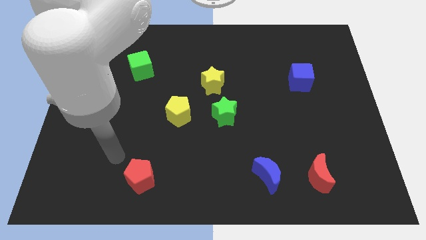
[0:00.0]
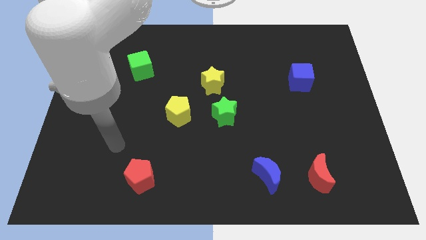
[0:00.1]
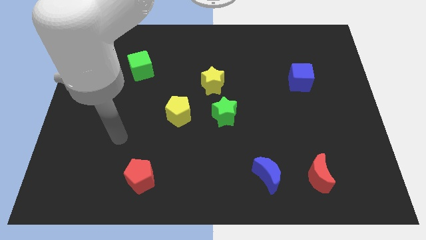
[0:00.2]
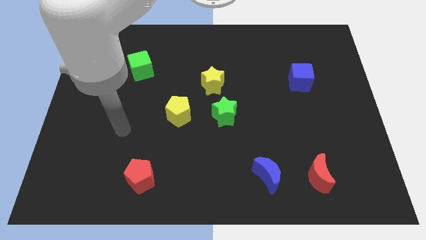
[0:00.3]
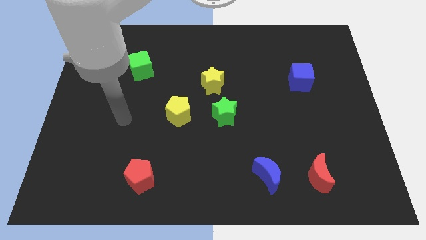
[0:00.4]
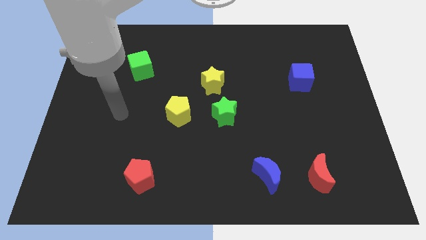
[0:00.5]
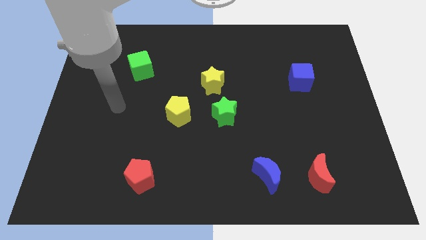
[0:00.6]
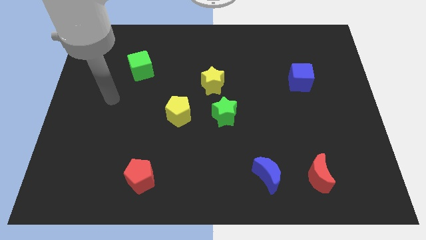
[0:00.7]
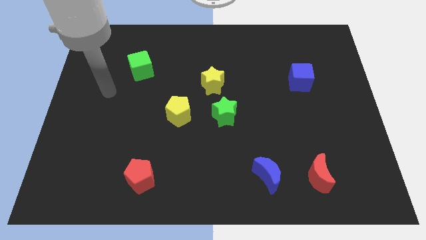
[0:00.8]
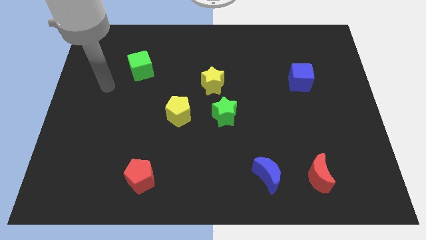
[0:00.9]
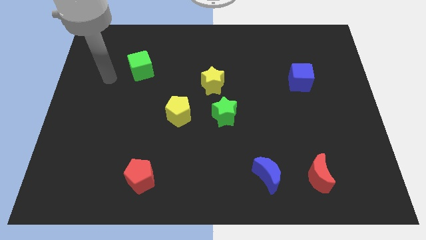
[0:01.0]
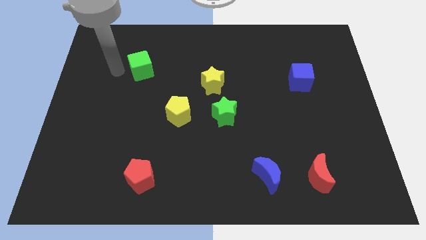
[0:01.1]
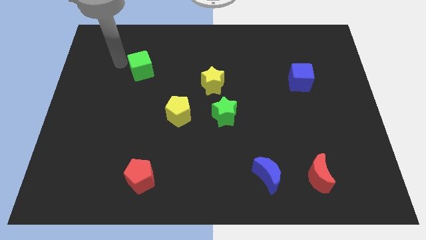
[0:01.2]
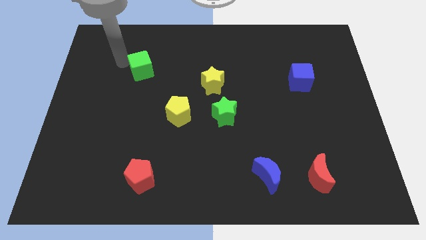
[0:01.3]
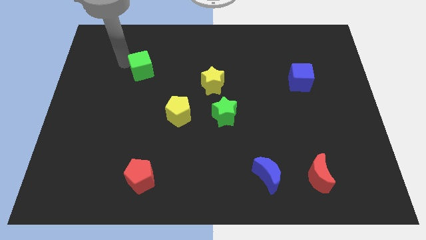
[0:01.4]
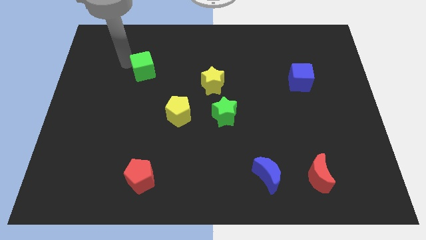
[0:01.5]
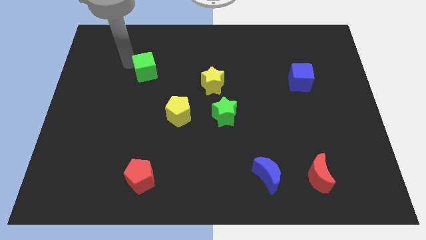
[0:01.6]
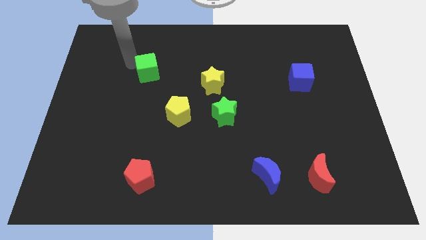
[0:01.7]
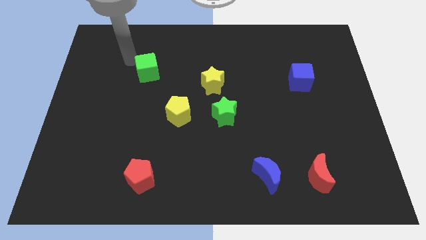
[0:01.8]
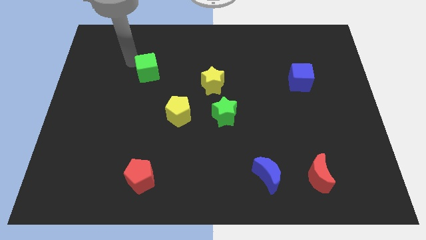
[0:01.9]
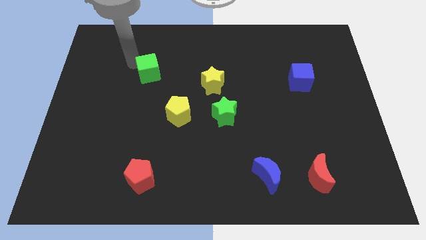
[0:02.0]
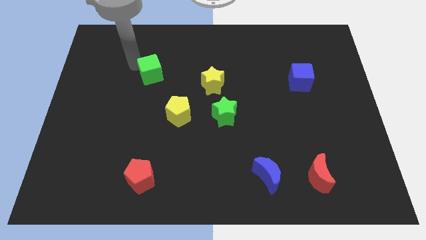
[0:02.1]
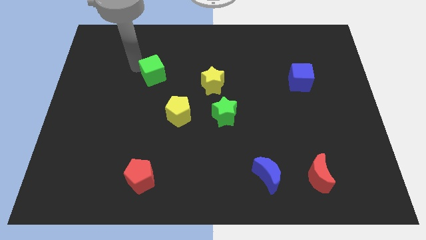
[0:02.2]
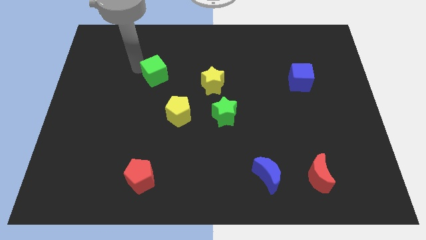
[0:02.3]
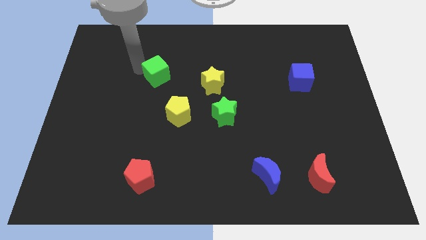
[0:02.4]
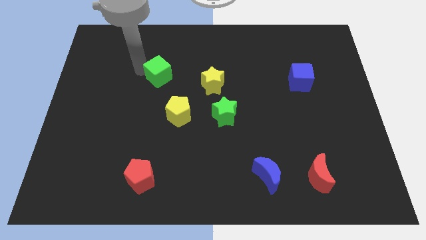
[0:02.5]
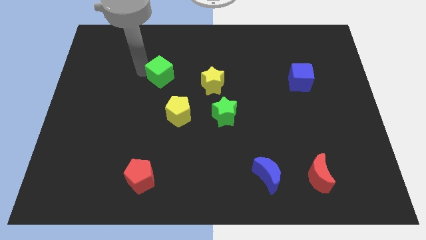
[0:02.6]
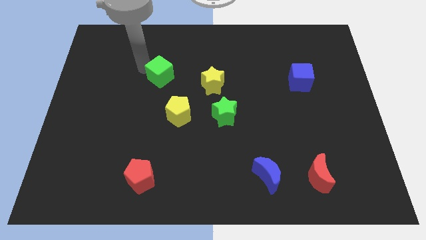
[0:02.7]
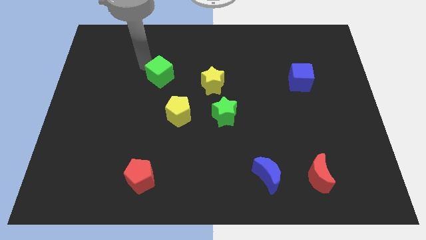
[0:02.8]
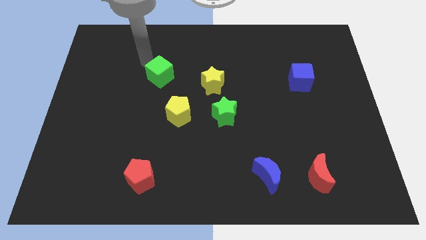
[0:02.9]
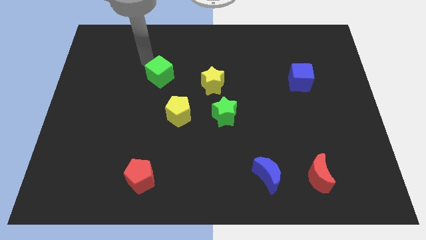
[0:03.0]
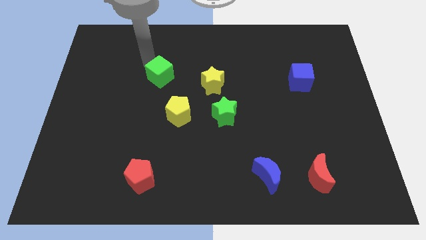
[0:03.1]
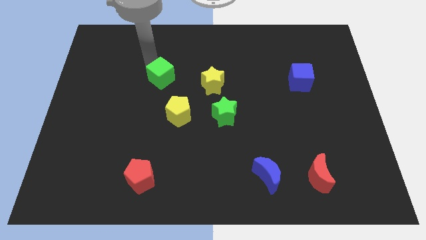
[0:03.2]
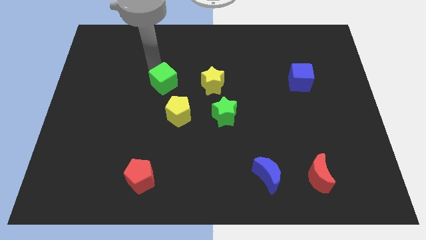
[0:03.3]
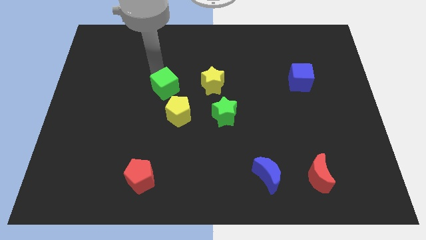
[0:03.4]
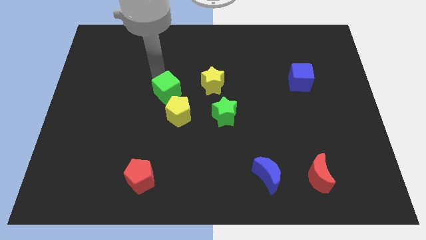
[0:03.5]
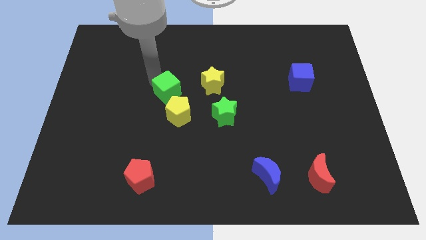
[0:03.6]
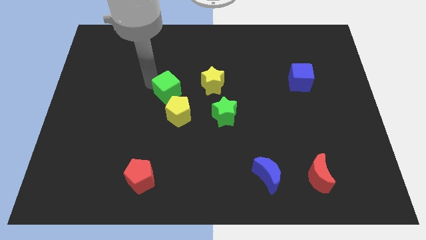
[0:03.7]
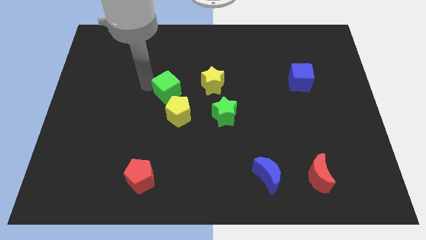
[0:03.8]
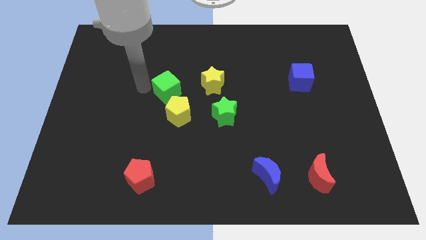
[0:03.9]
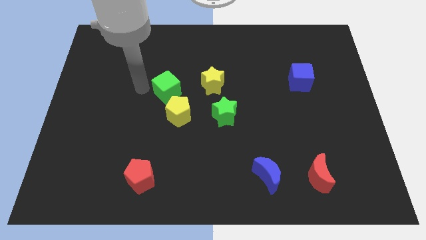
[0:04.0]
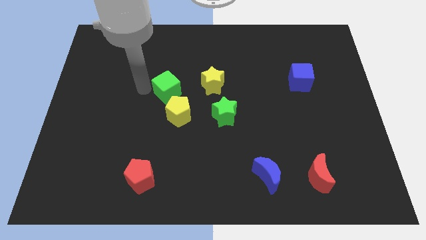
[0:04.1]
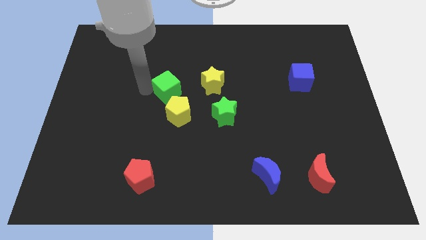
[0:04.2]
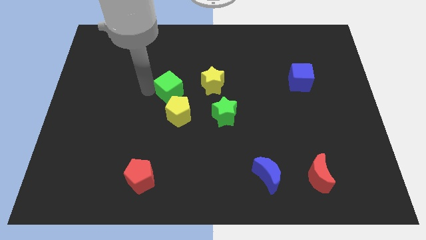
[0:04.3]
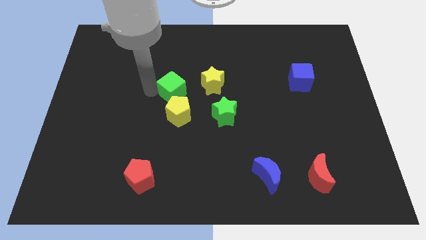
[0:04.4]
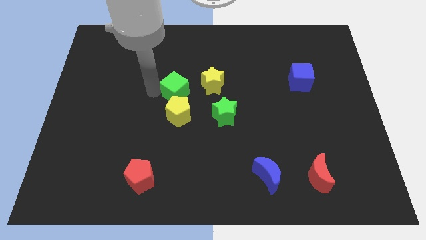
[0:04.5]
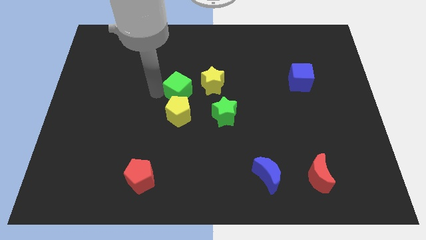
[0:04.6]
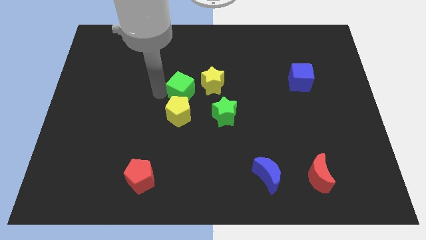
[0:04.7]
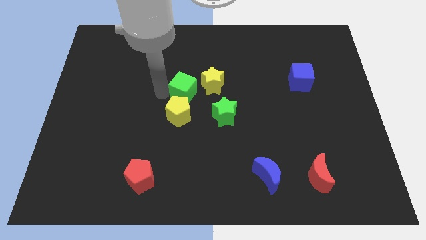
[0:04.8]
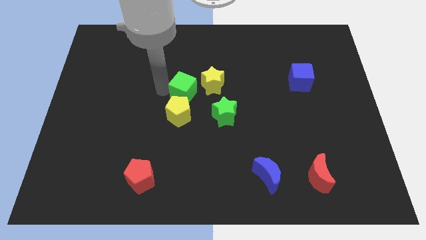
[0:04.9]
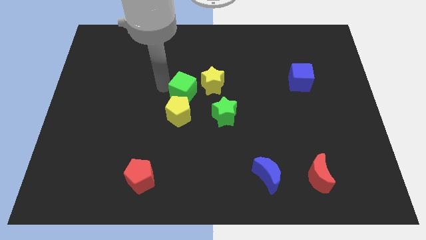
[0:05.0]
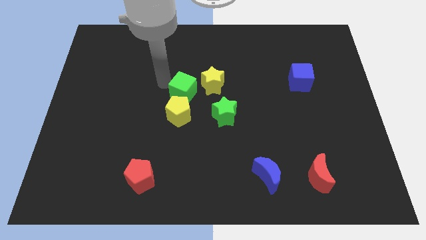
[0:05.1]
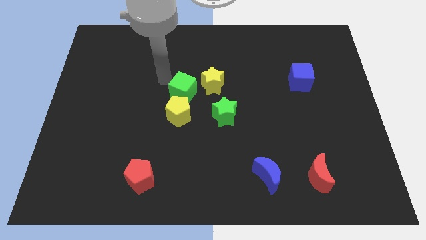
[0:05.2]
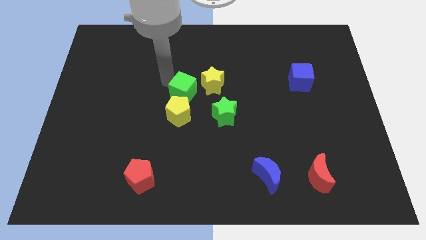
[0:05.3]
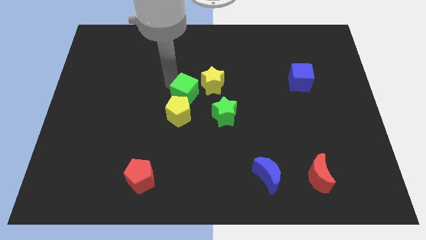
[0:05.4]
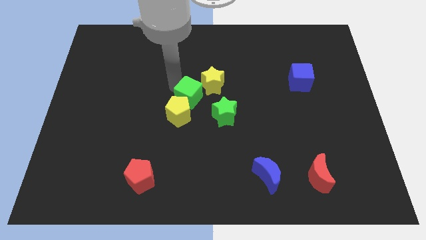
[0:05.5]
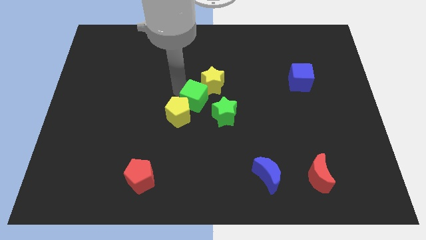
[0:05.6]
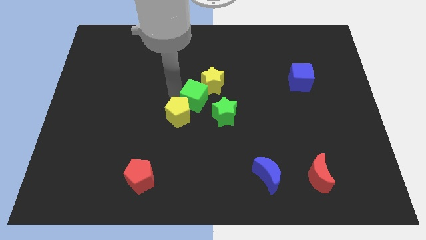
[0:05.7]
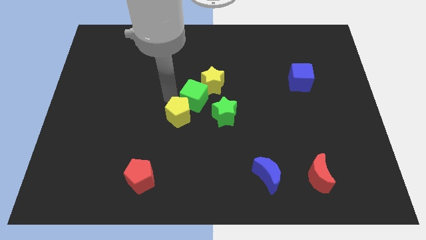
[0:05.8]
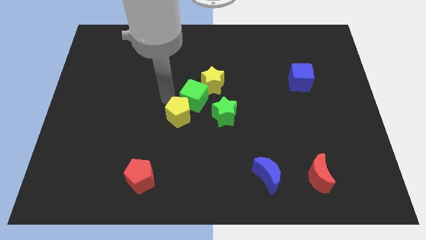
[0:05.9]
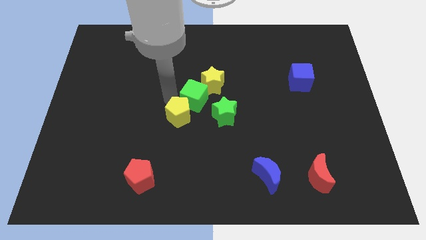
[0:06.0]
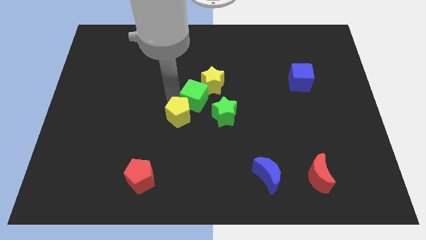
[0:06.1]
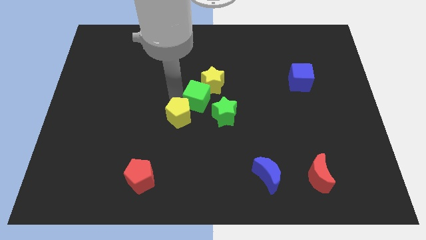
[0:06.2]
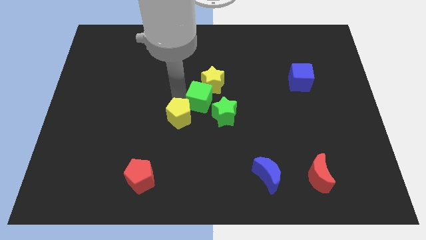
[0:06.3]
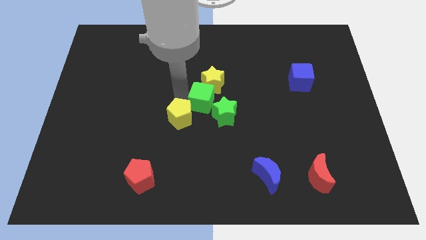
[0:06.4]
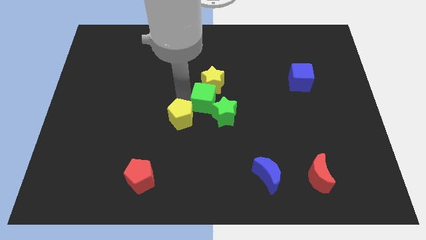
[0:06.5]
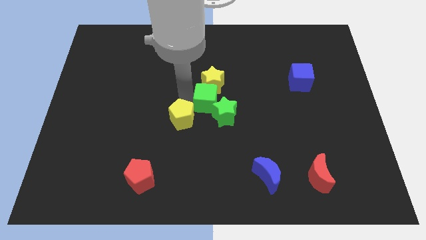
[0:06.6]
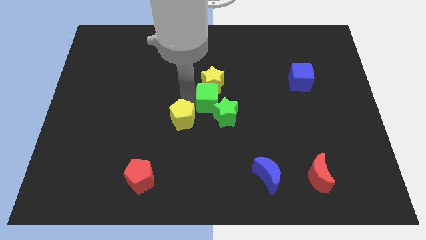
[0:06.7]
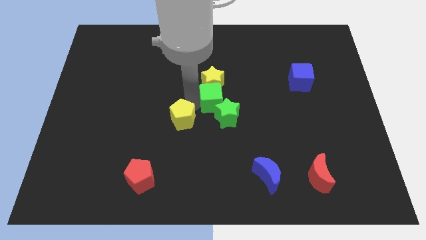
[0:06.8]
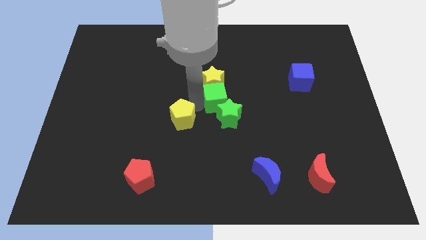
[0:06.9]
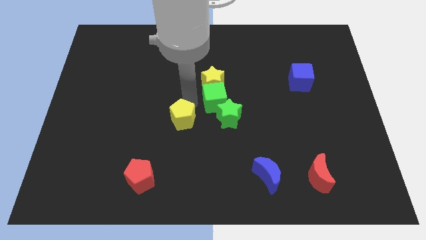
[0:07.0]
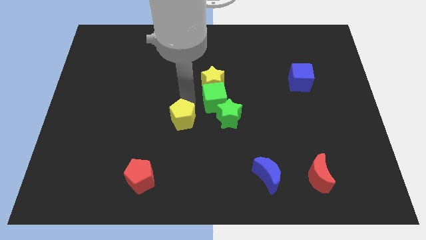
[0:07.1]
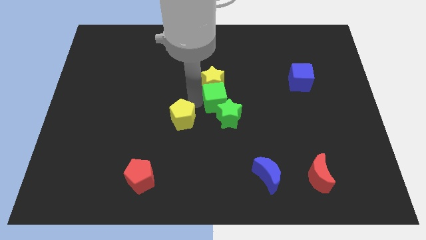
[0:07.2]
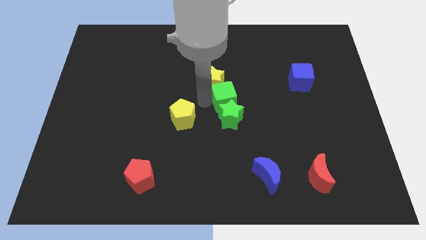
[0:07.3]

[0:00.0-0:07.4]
push the green cube to the top right side of the green star
